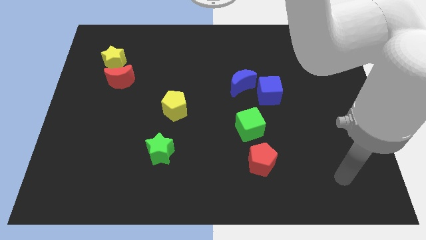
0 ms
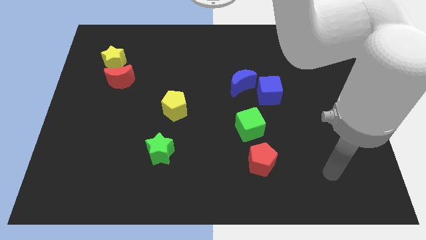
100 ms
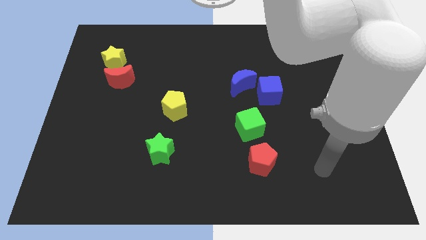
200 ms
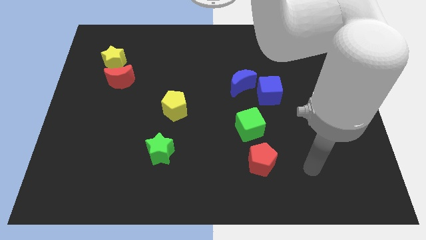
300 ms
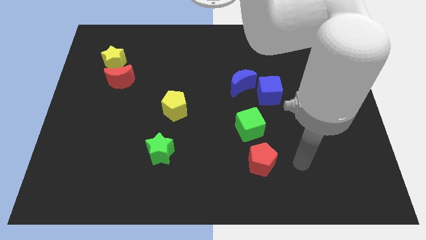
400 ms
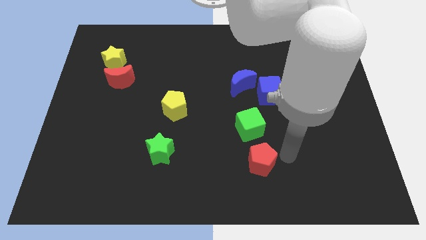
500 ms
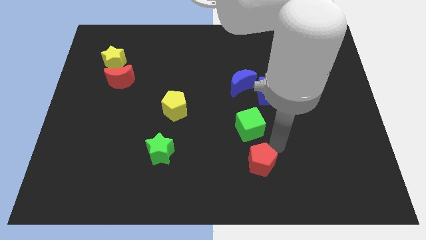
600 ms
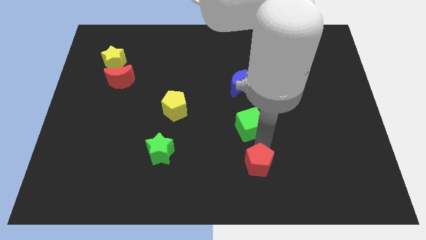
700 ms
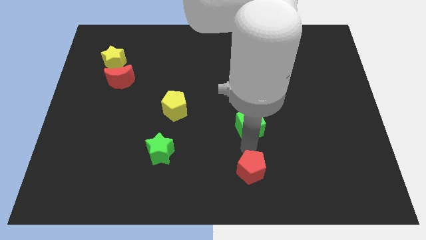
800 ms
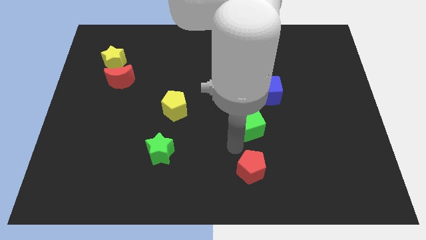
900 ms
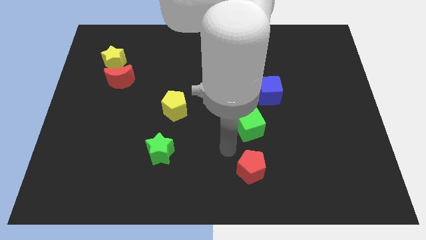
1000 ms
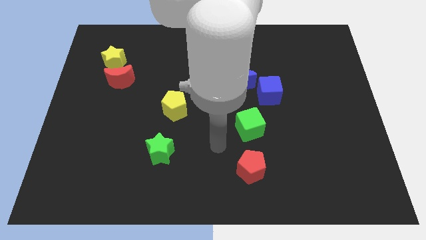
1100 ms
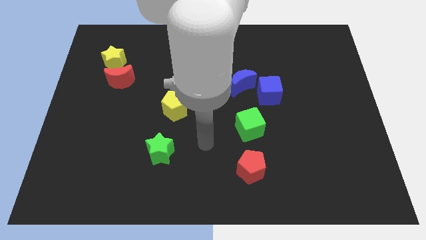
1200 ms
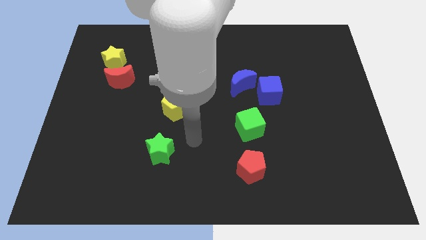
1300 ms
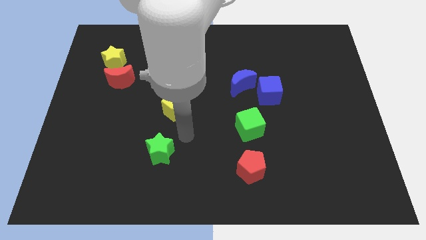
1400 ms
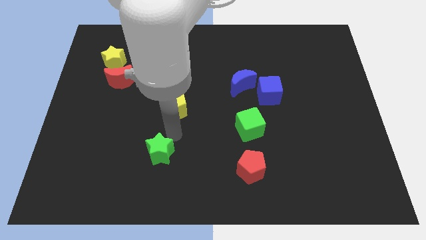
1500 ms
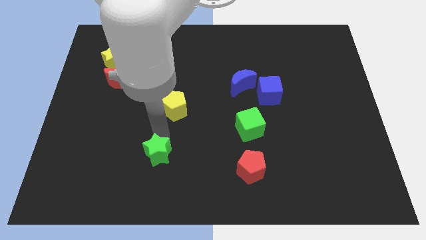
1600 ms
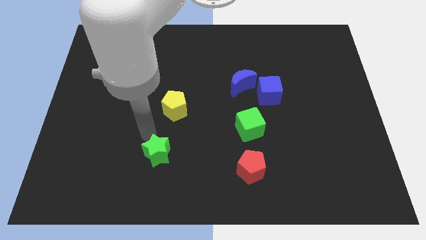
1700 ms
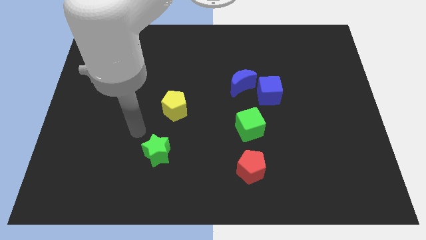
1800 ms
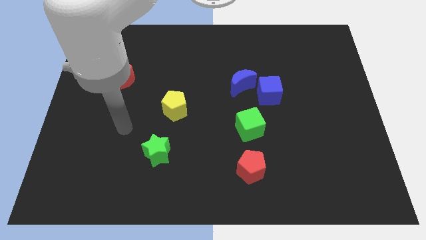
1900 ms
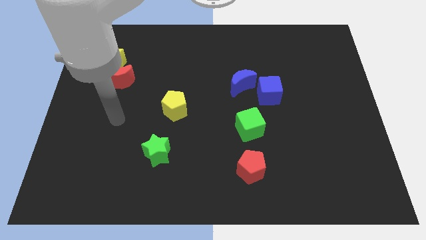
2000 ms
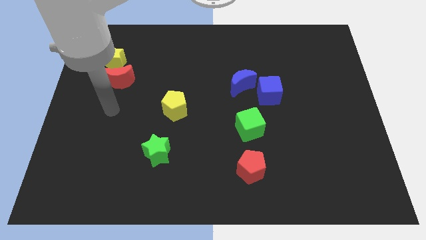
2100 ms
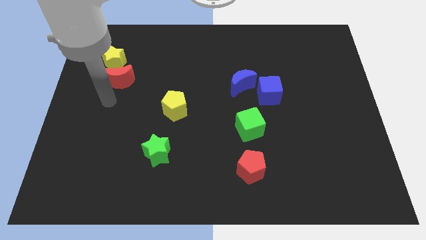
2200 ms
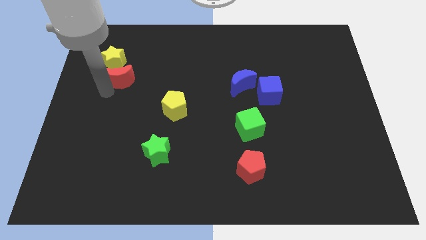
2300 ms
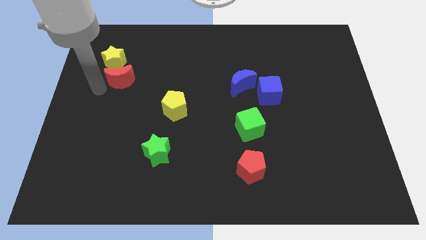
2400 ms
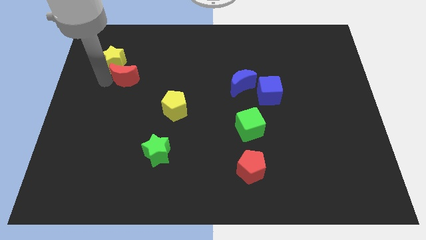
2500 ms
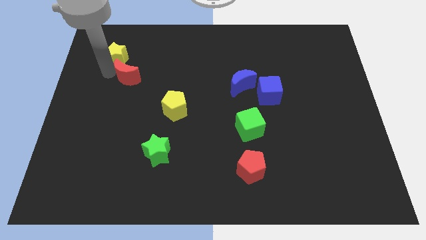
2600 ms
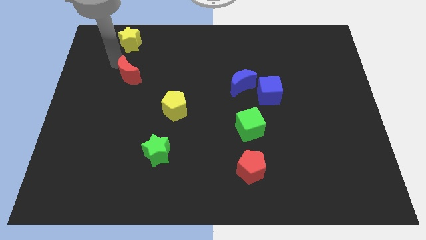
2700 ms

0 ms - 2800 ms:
pull the red moon apart from the yellow star

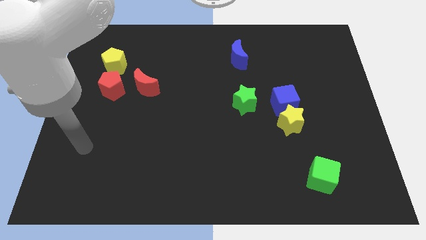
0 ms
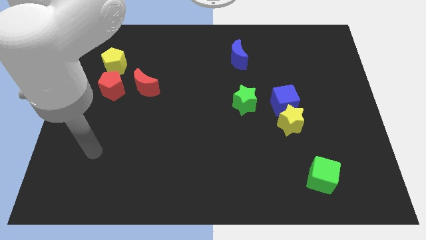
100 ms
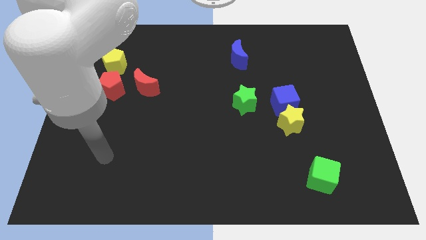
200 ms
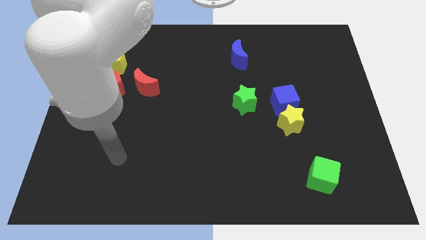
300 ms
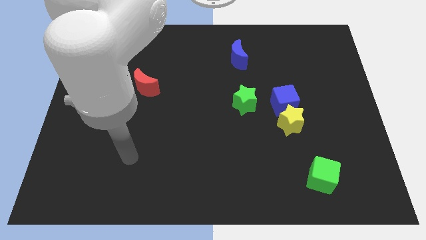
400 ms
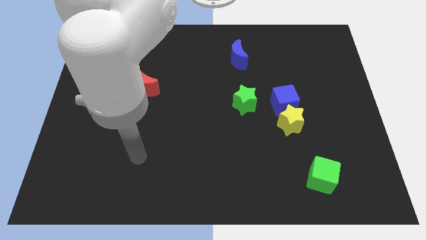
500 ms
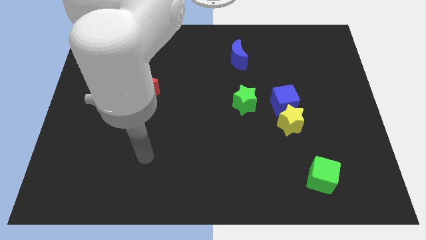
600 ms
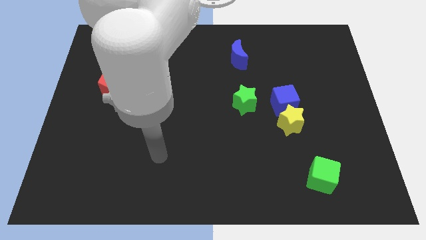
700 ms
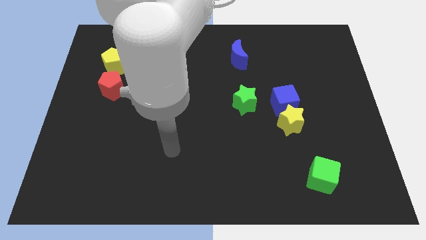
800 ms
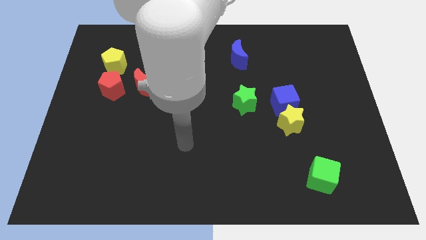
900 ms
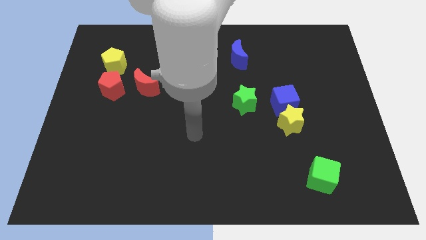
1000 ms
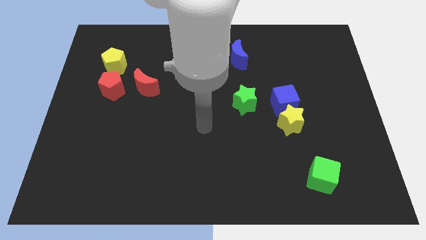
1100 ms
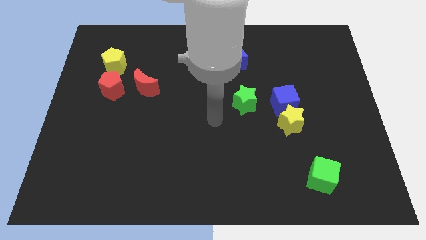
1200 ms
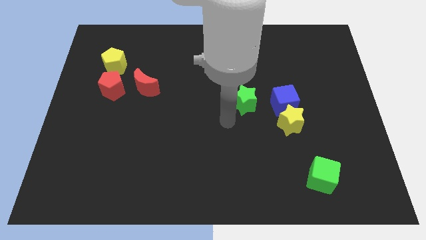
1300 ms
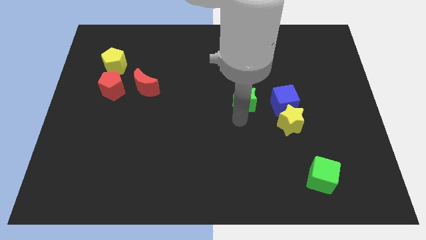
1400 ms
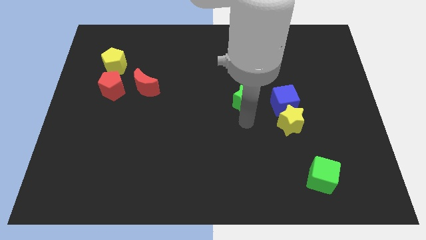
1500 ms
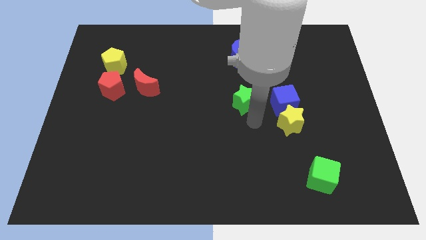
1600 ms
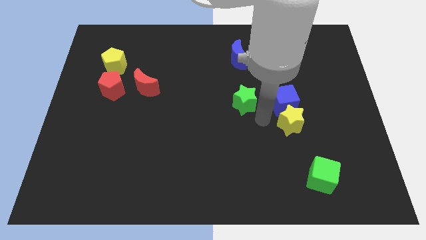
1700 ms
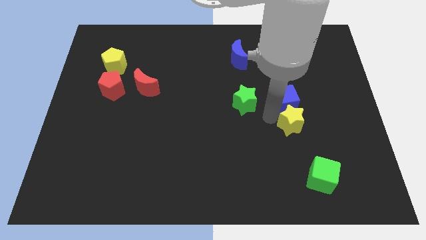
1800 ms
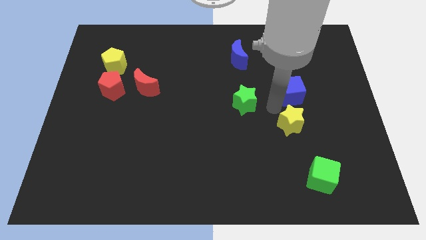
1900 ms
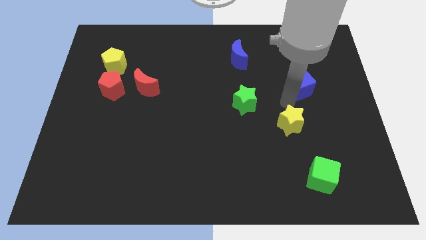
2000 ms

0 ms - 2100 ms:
move the yellow star away from the blue cube

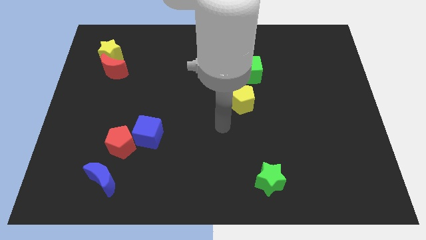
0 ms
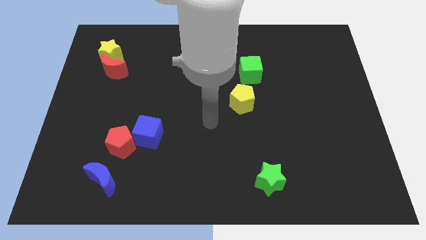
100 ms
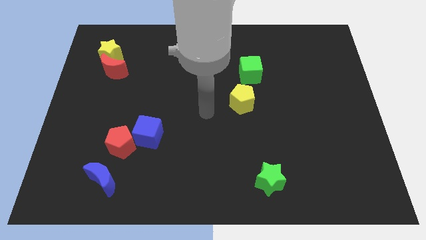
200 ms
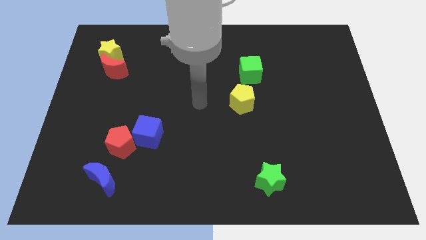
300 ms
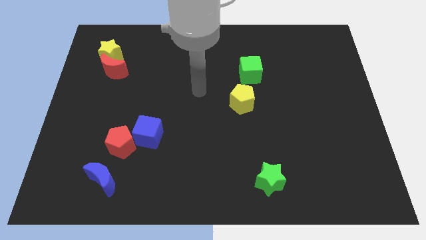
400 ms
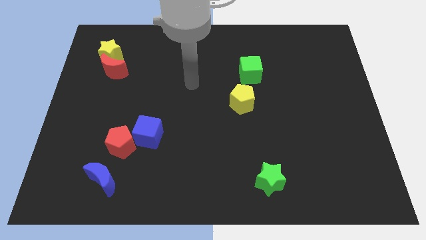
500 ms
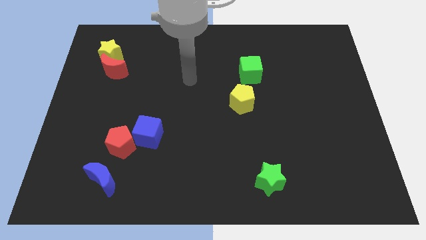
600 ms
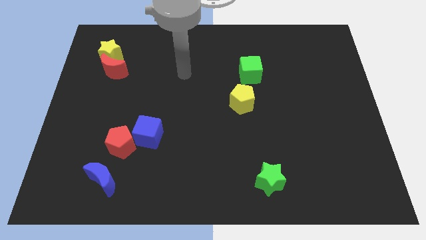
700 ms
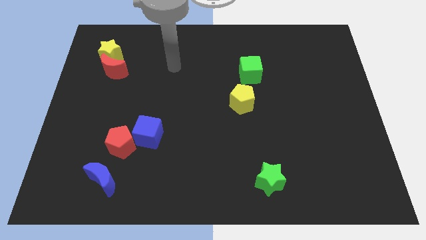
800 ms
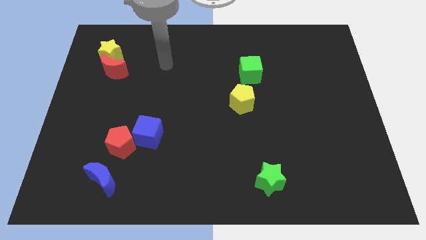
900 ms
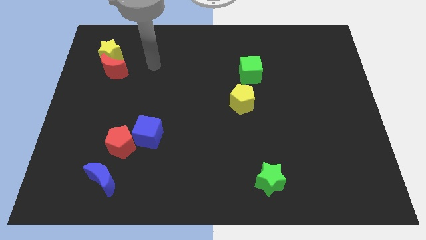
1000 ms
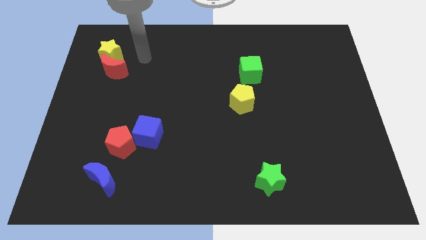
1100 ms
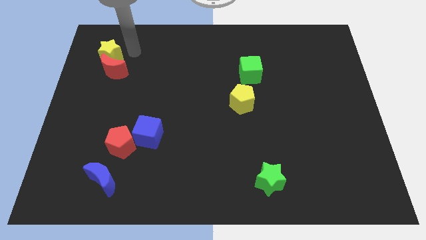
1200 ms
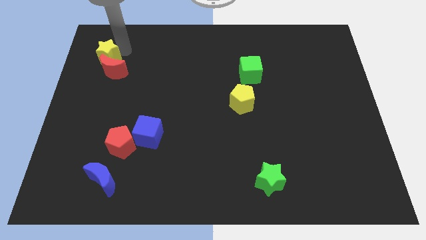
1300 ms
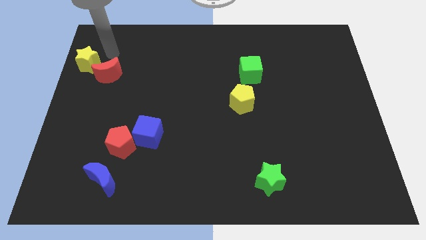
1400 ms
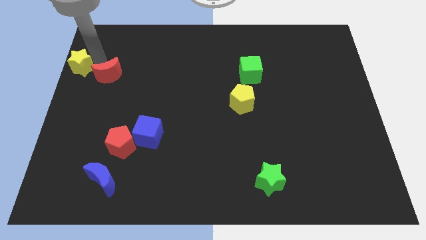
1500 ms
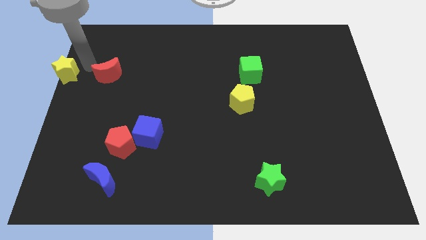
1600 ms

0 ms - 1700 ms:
move the red moon away from the yellow star

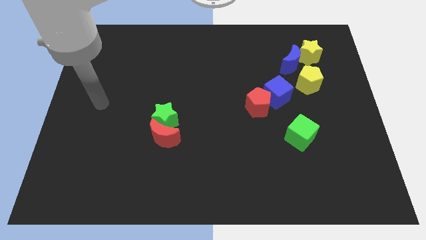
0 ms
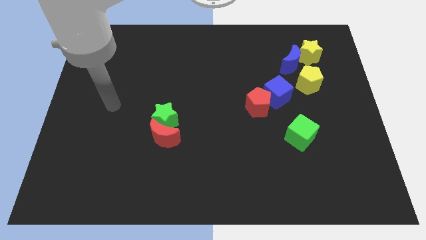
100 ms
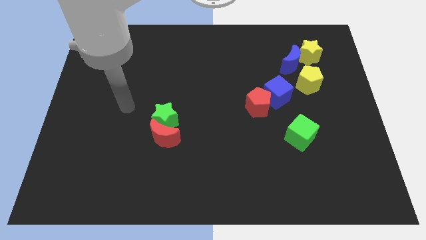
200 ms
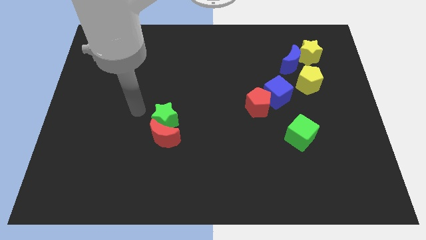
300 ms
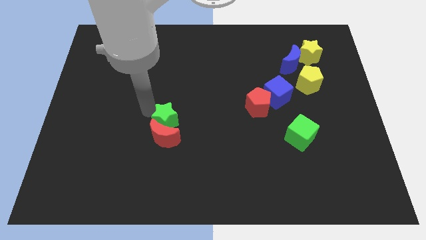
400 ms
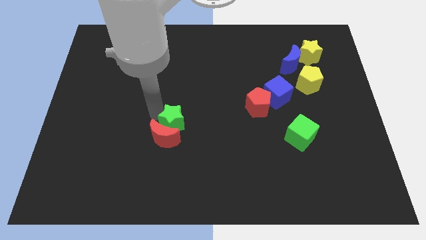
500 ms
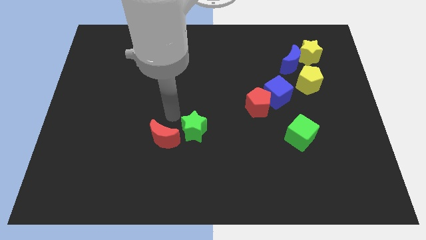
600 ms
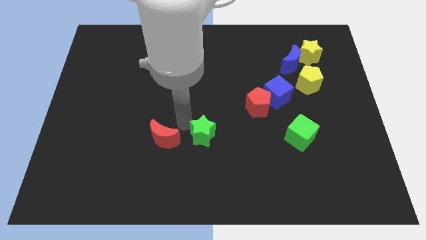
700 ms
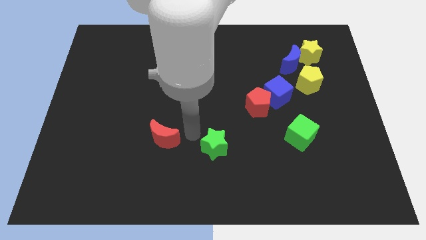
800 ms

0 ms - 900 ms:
pull the red moon apart from the green star

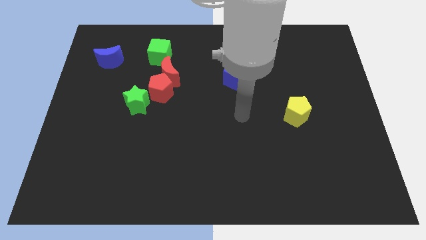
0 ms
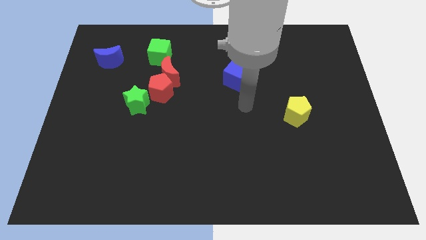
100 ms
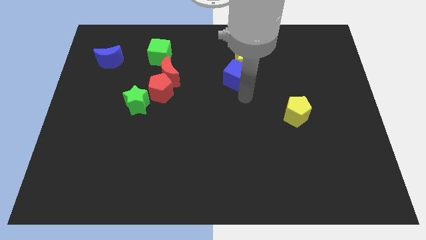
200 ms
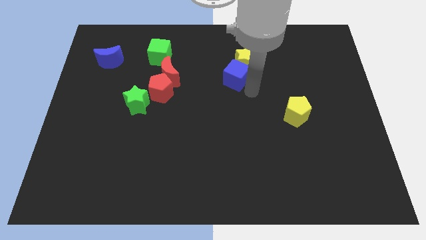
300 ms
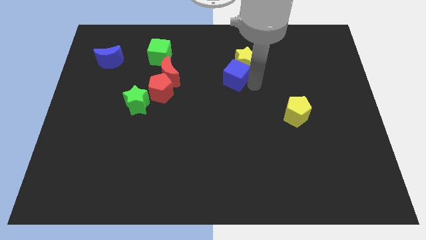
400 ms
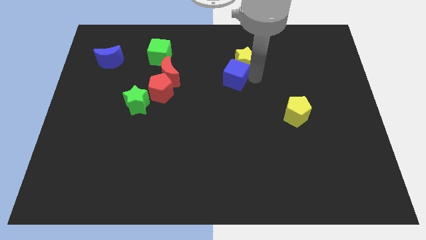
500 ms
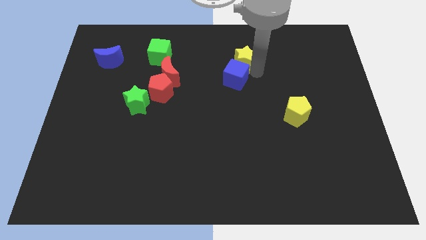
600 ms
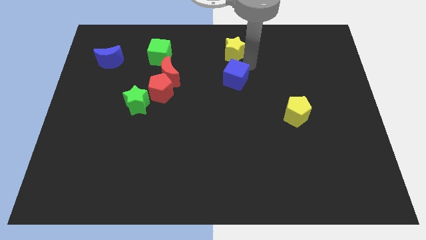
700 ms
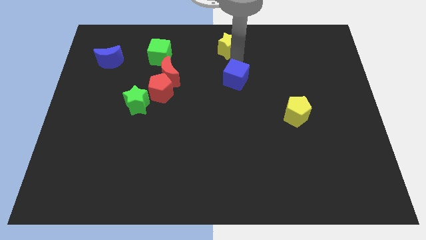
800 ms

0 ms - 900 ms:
move the blue cube away from the yellow star

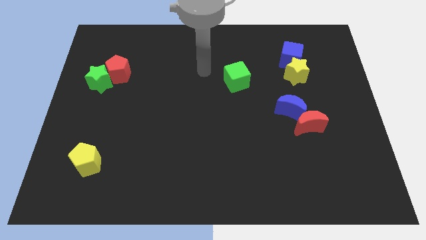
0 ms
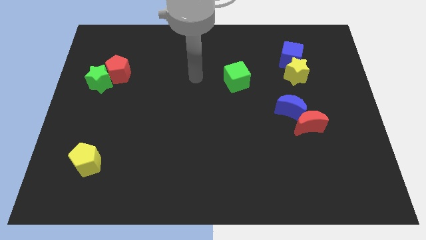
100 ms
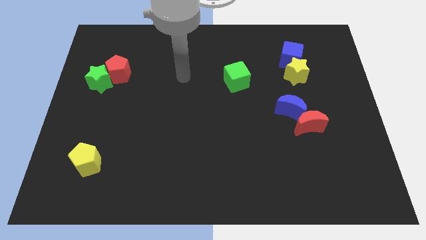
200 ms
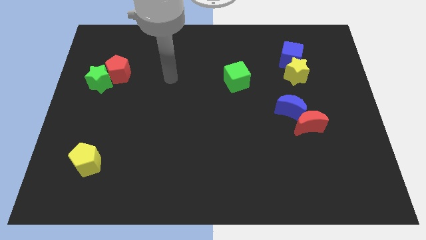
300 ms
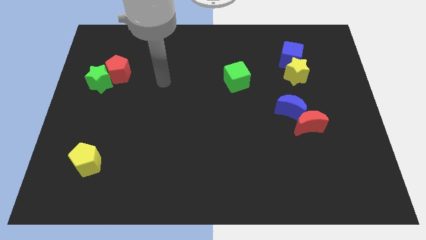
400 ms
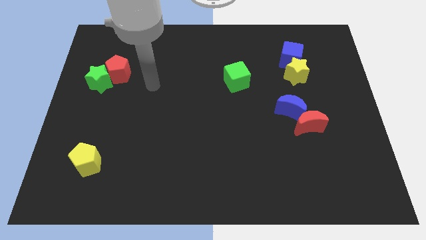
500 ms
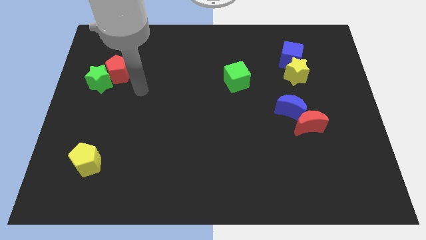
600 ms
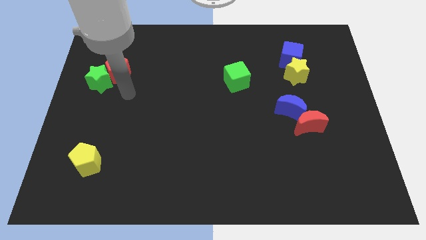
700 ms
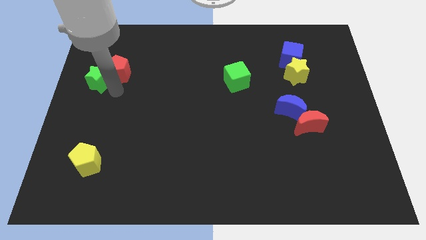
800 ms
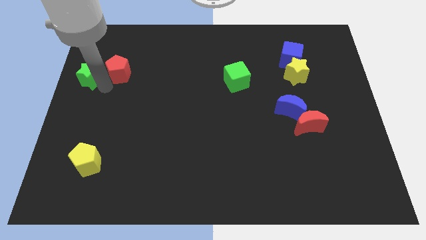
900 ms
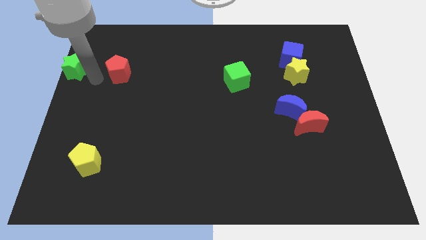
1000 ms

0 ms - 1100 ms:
pull the red pentagon apart from the green star
